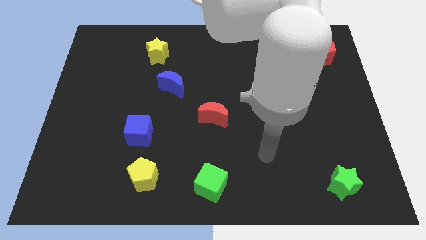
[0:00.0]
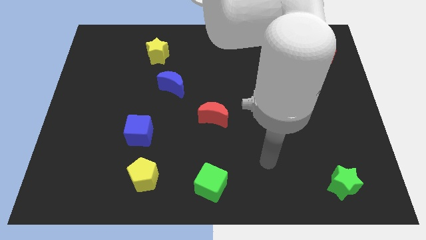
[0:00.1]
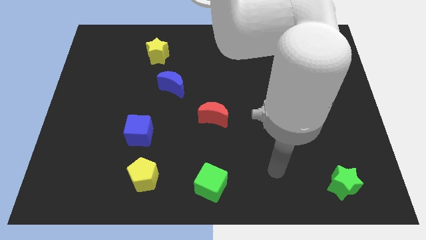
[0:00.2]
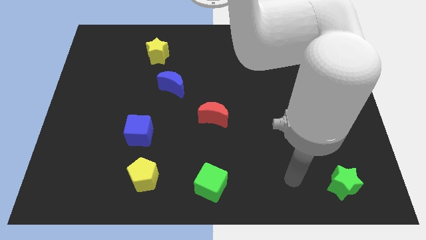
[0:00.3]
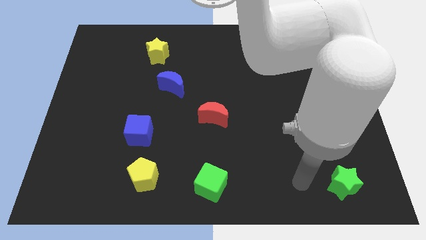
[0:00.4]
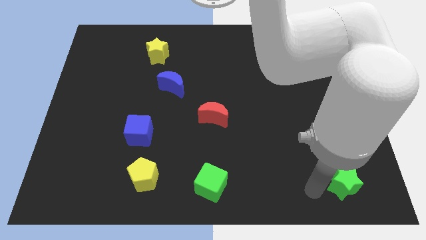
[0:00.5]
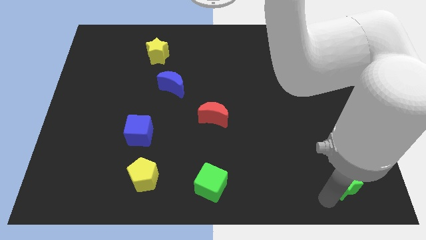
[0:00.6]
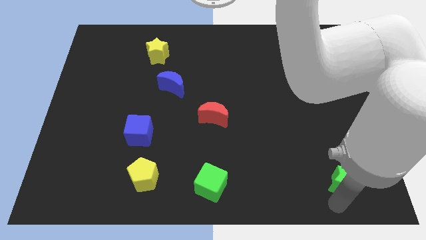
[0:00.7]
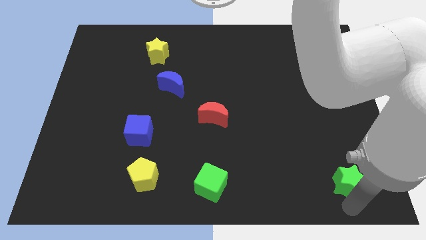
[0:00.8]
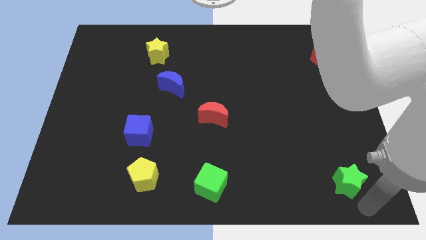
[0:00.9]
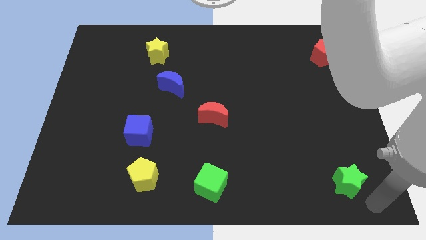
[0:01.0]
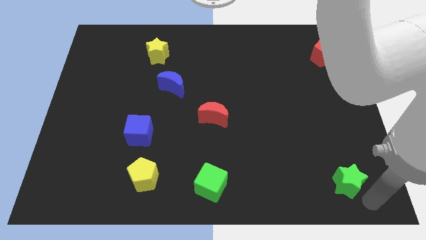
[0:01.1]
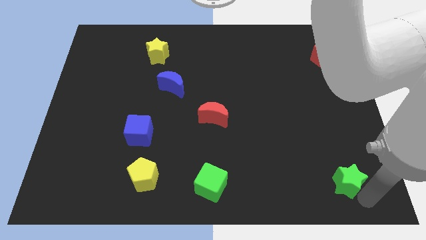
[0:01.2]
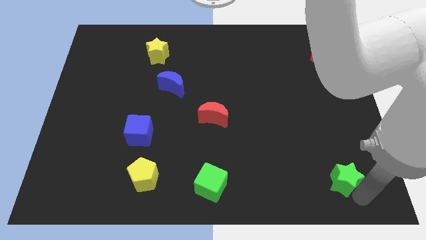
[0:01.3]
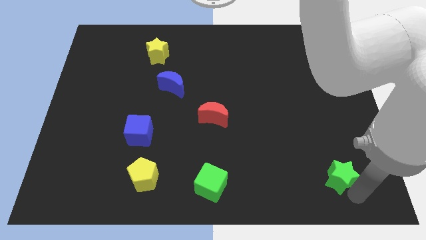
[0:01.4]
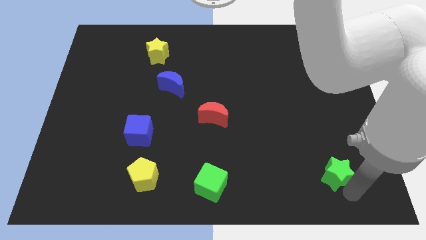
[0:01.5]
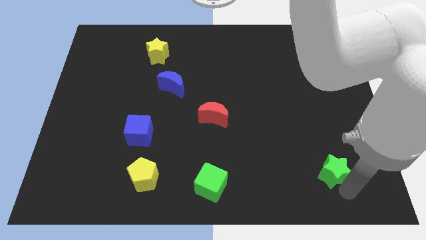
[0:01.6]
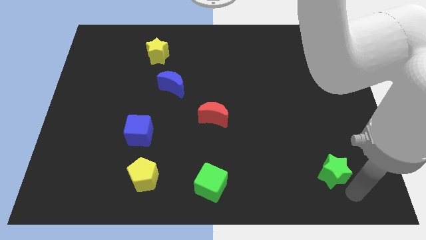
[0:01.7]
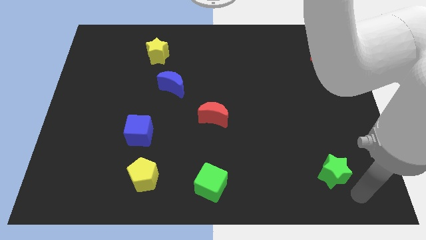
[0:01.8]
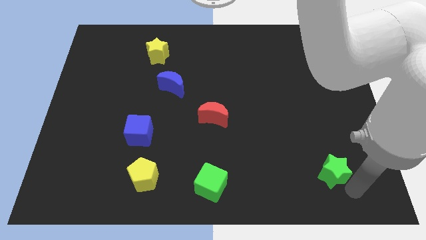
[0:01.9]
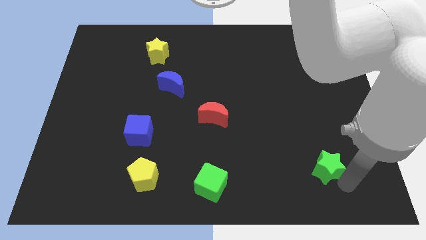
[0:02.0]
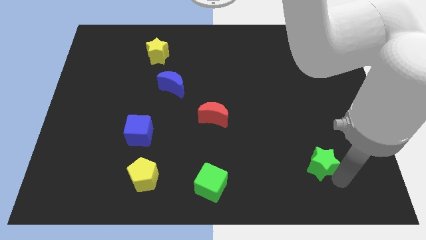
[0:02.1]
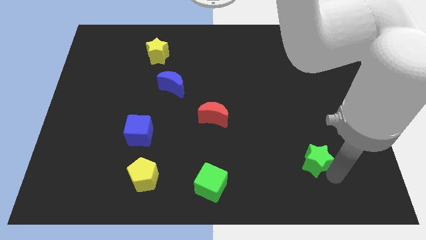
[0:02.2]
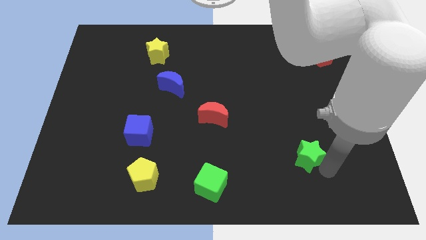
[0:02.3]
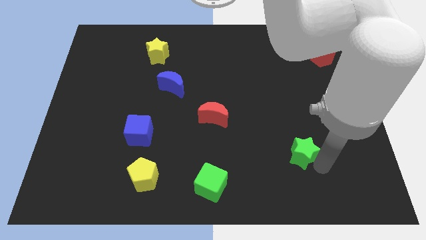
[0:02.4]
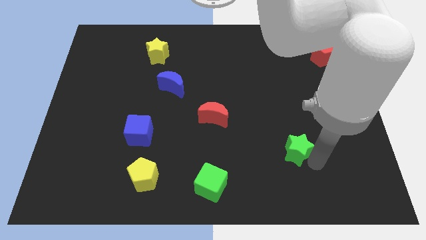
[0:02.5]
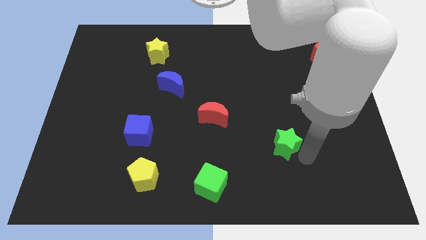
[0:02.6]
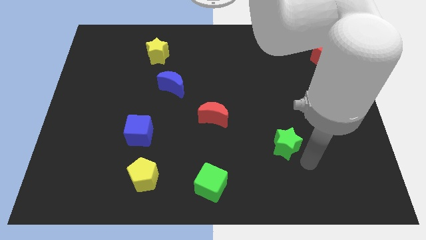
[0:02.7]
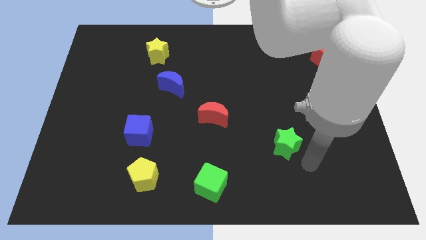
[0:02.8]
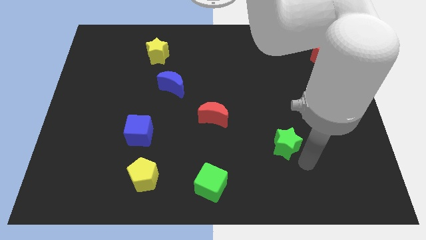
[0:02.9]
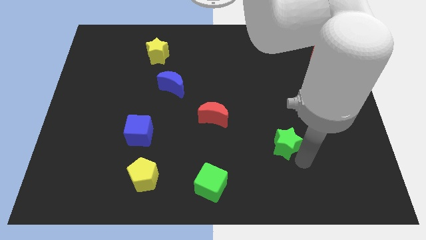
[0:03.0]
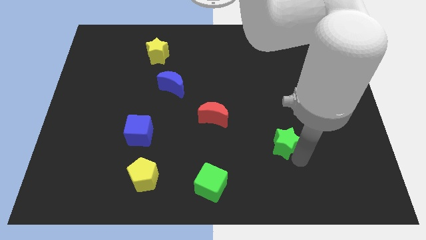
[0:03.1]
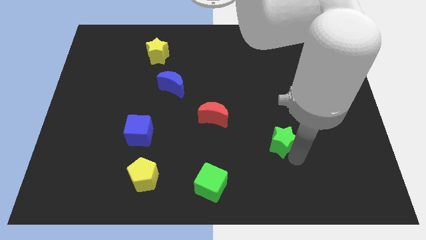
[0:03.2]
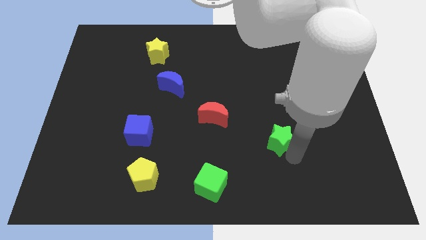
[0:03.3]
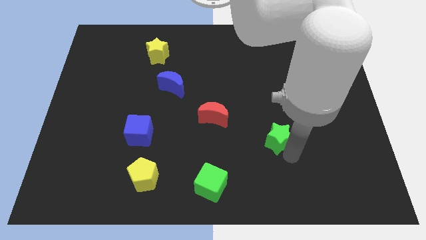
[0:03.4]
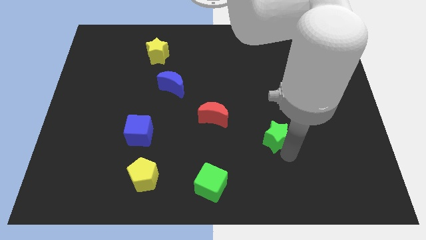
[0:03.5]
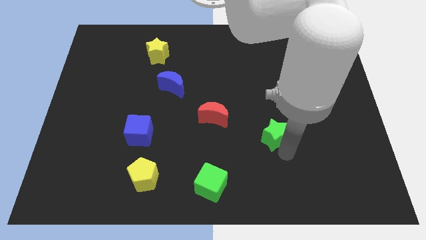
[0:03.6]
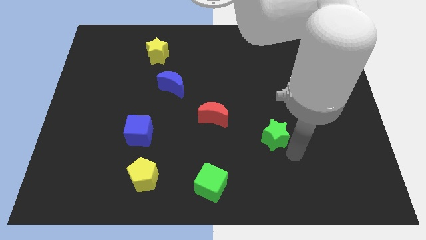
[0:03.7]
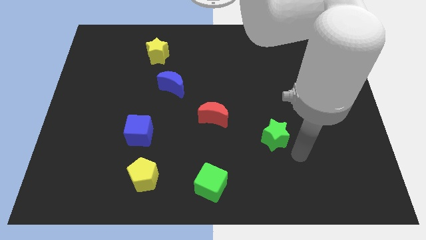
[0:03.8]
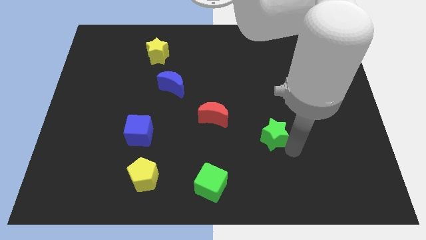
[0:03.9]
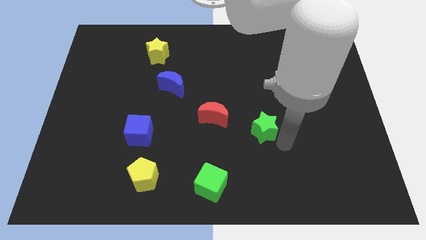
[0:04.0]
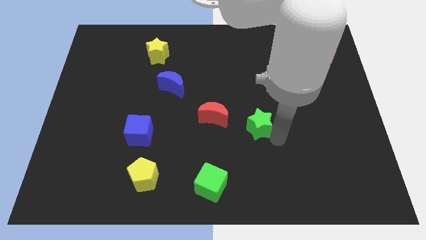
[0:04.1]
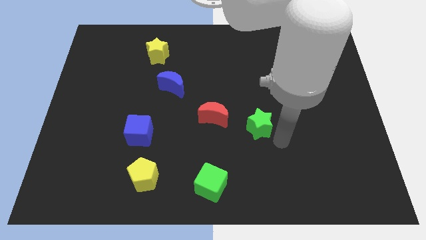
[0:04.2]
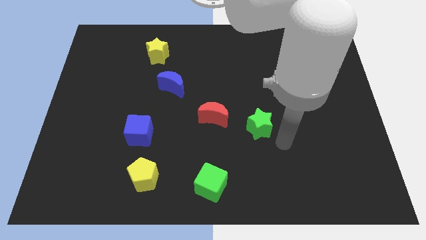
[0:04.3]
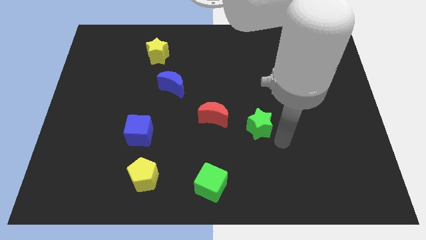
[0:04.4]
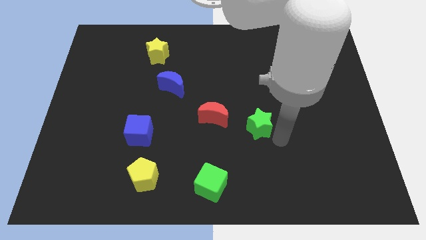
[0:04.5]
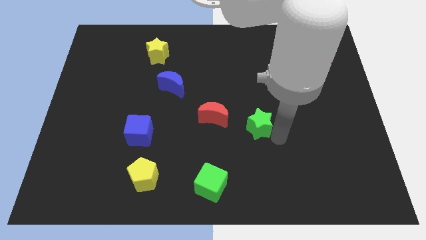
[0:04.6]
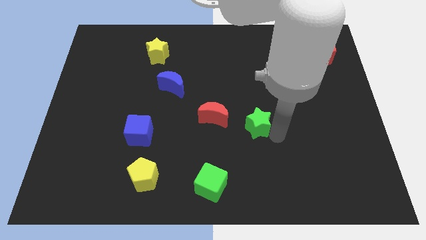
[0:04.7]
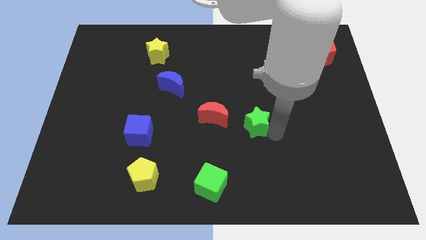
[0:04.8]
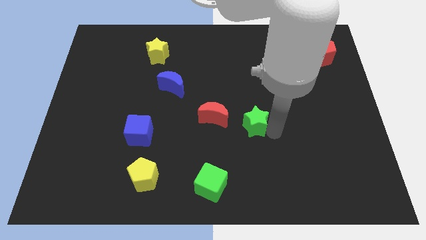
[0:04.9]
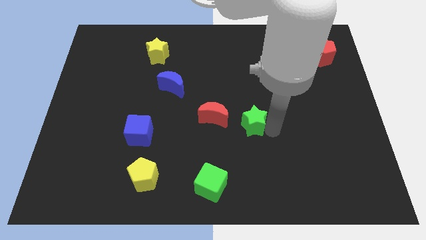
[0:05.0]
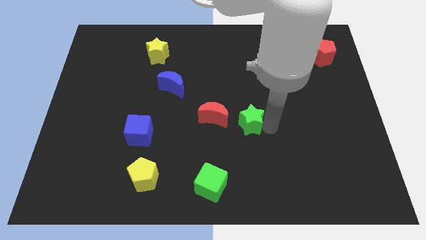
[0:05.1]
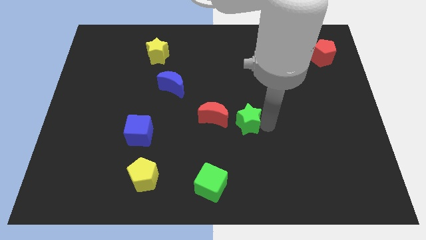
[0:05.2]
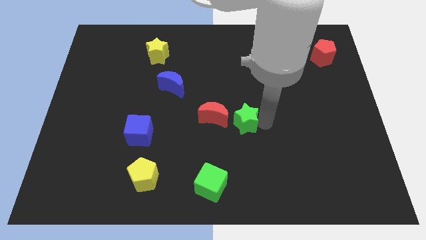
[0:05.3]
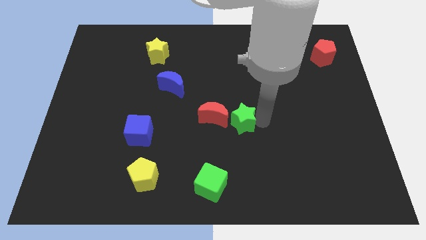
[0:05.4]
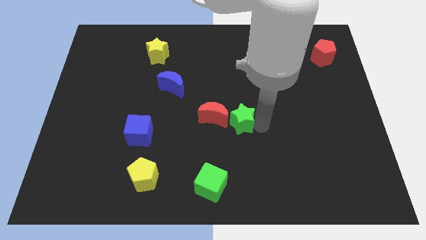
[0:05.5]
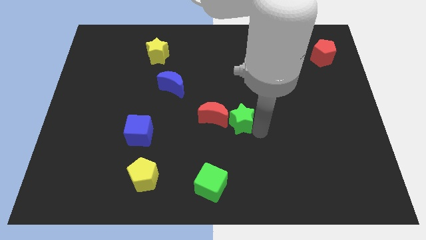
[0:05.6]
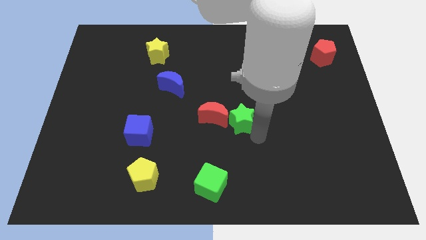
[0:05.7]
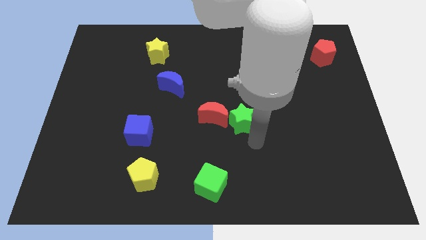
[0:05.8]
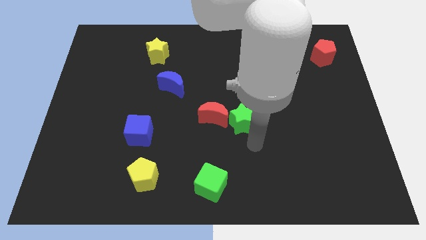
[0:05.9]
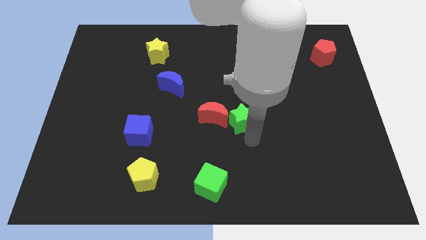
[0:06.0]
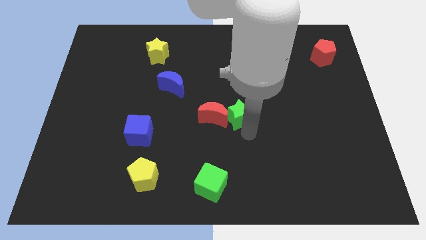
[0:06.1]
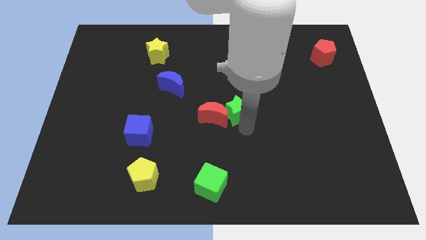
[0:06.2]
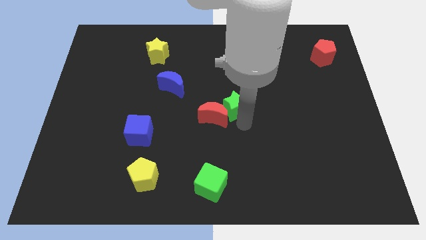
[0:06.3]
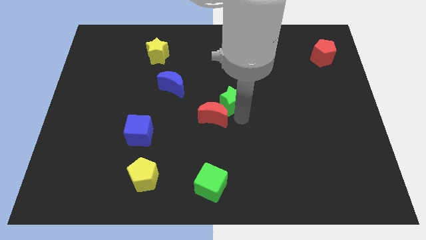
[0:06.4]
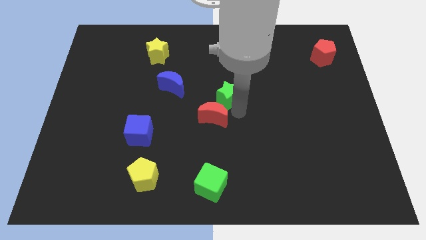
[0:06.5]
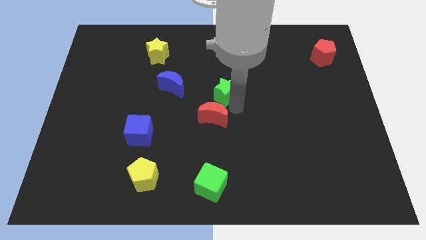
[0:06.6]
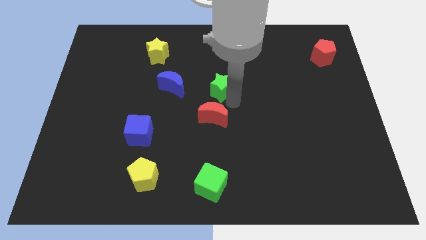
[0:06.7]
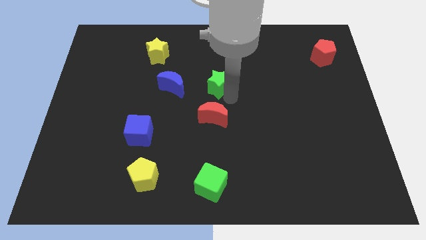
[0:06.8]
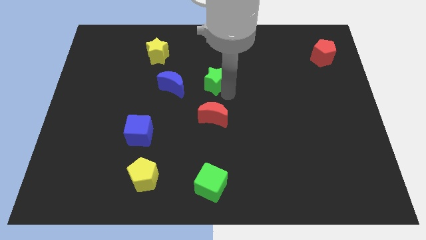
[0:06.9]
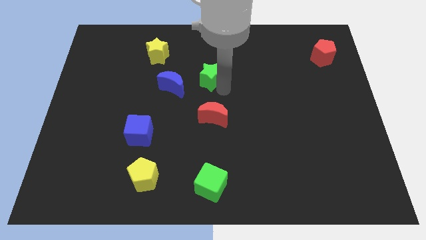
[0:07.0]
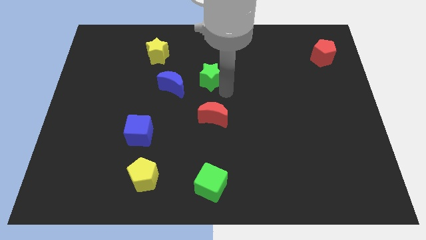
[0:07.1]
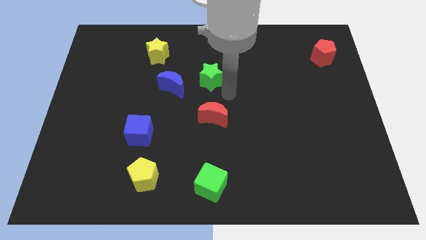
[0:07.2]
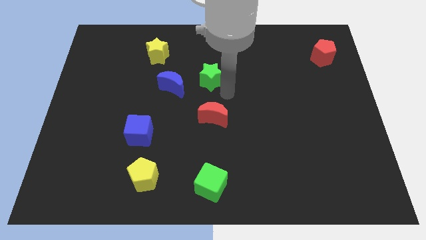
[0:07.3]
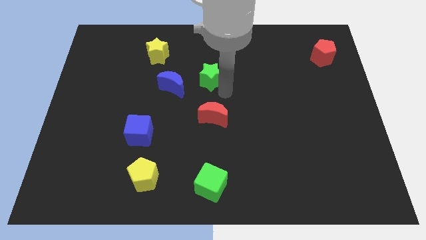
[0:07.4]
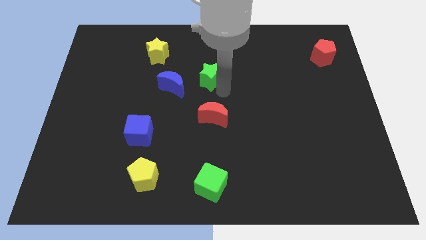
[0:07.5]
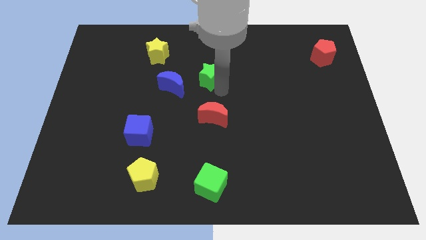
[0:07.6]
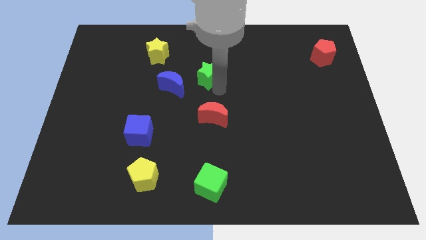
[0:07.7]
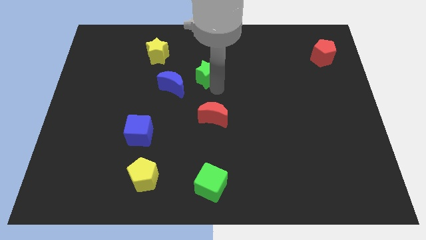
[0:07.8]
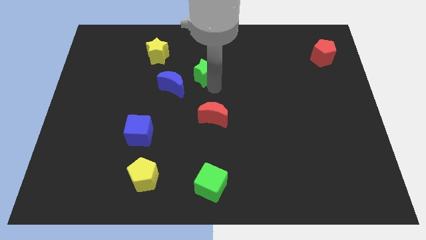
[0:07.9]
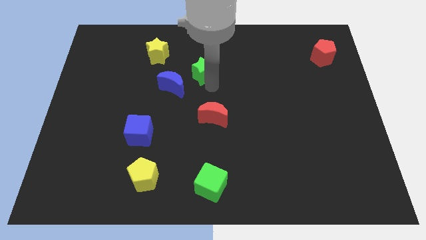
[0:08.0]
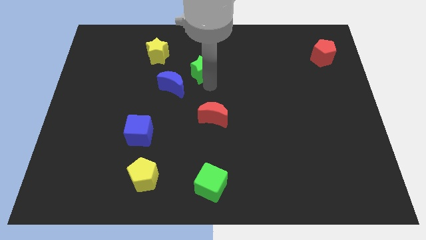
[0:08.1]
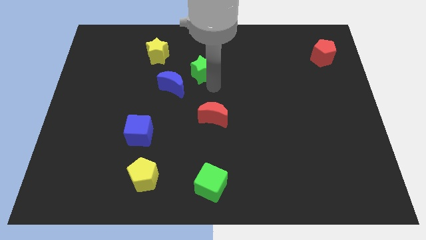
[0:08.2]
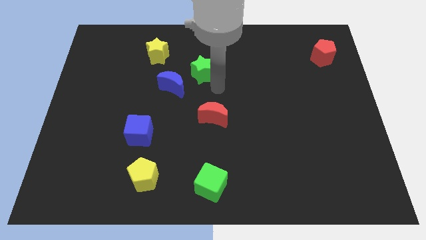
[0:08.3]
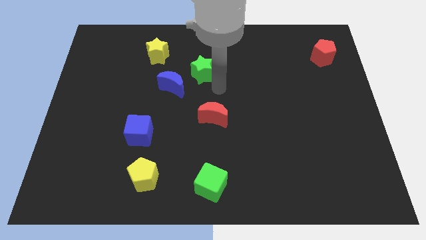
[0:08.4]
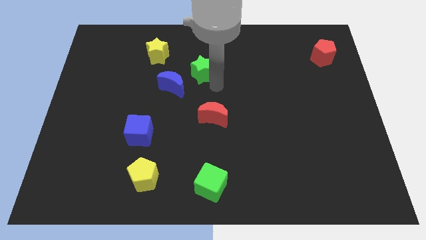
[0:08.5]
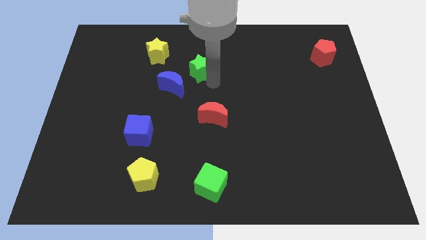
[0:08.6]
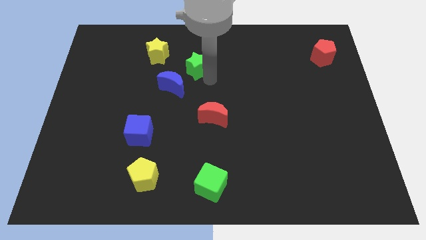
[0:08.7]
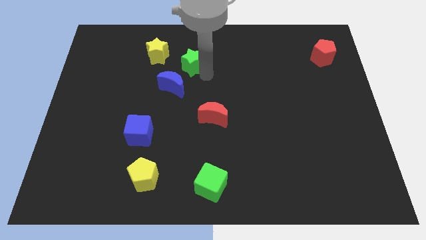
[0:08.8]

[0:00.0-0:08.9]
move the green star to the top side of the blue moon
